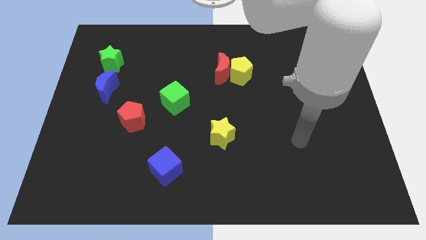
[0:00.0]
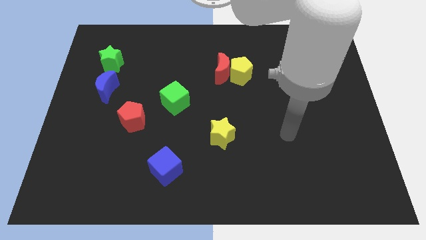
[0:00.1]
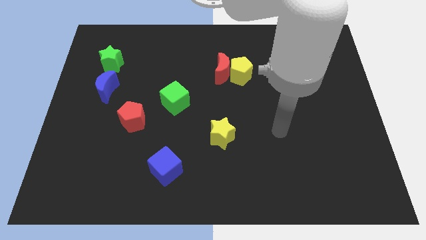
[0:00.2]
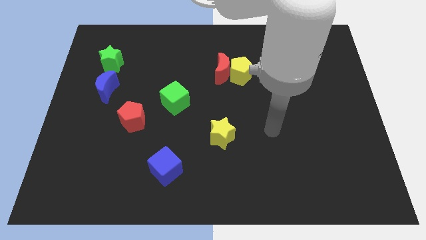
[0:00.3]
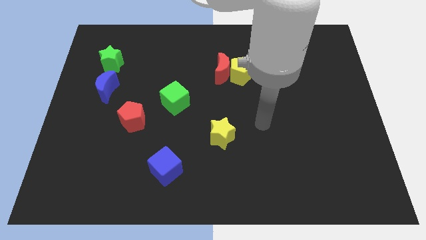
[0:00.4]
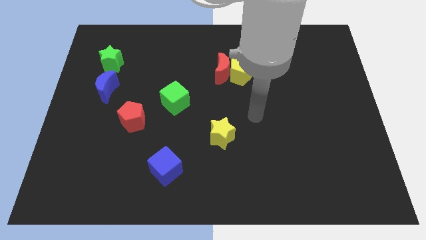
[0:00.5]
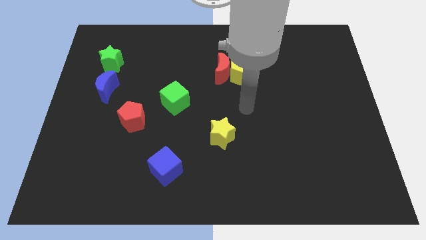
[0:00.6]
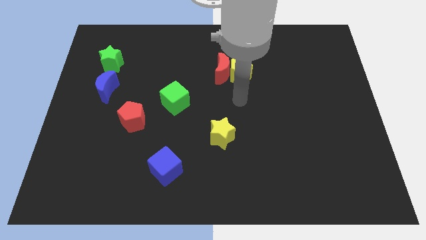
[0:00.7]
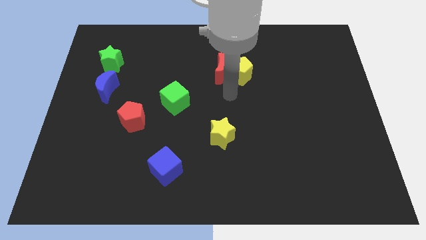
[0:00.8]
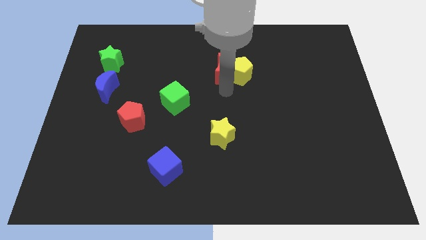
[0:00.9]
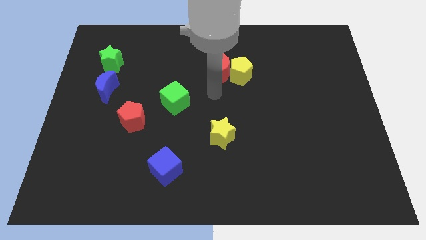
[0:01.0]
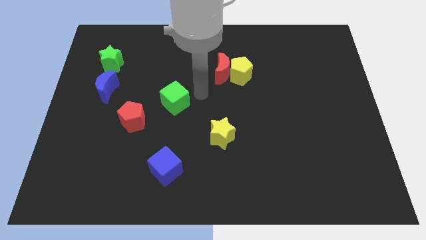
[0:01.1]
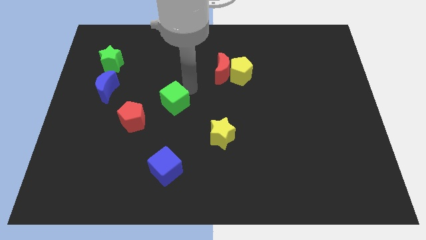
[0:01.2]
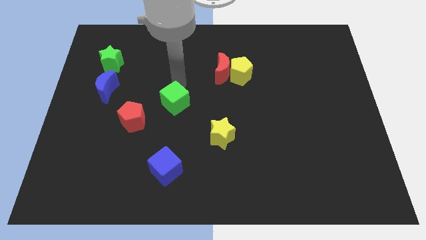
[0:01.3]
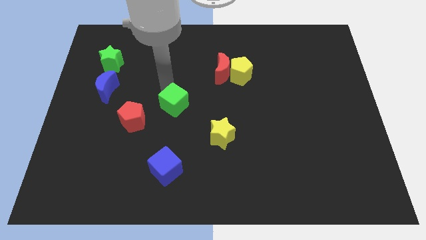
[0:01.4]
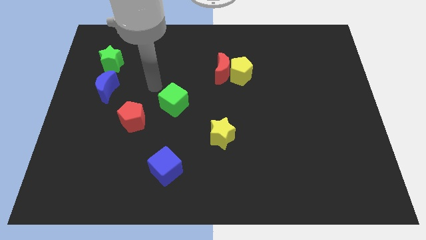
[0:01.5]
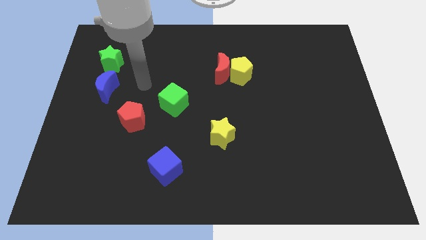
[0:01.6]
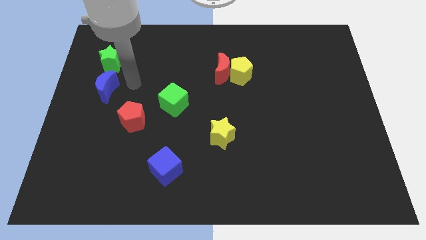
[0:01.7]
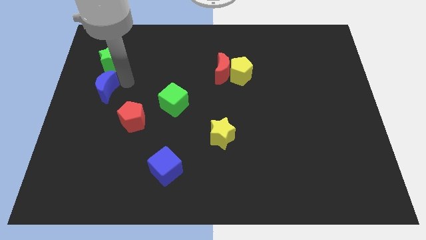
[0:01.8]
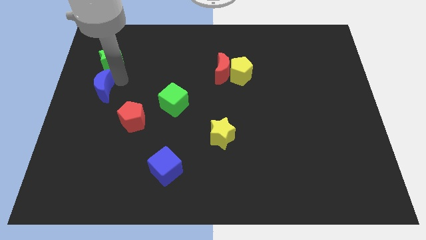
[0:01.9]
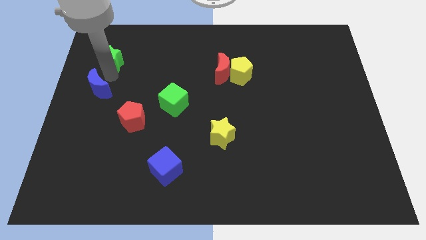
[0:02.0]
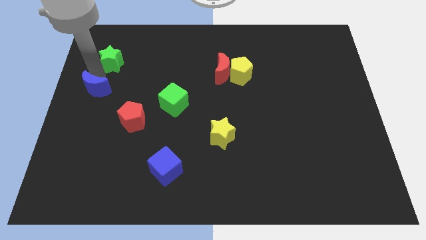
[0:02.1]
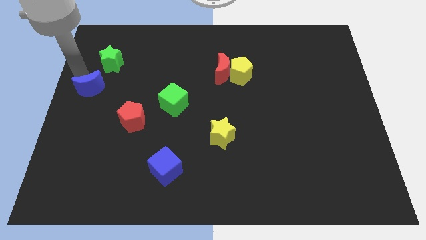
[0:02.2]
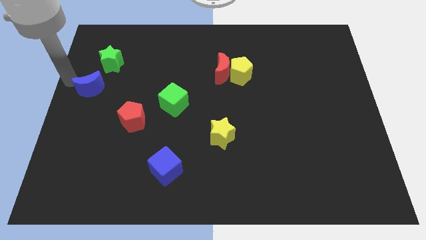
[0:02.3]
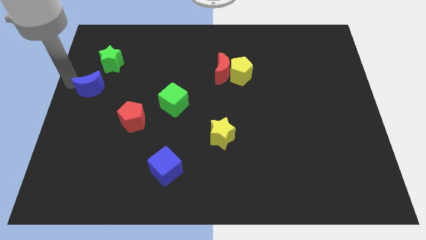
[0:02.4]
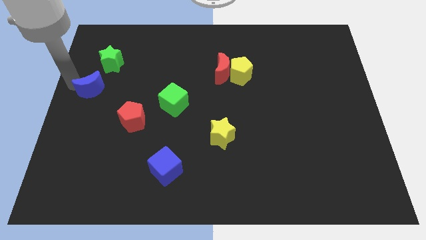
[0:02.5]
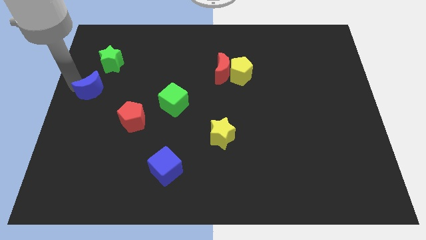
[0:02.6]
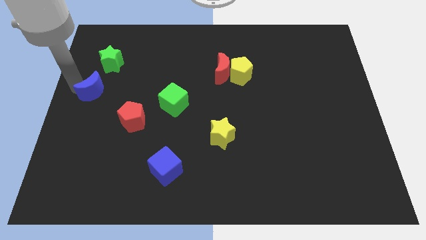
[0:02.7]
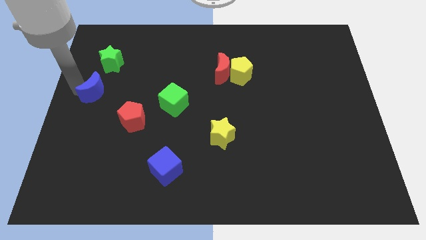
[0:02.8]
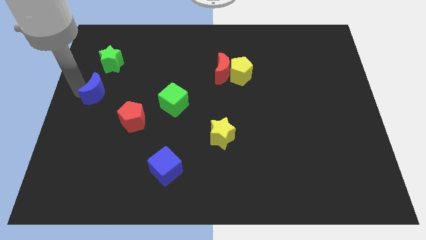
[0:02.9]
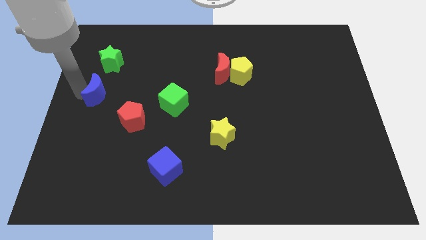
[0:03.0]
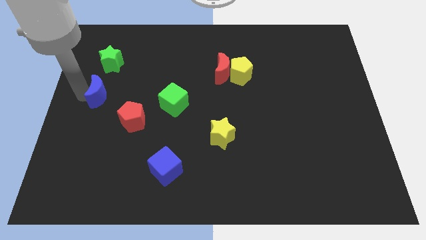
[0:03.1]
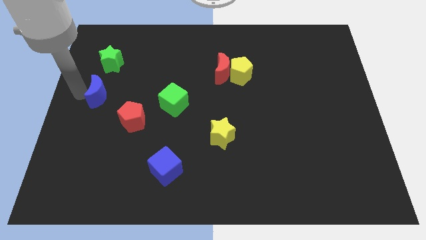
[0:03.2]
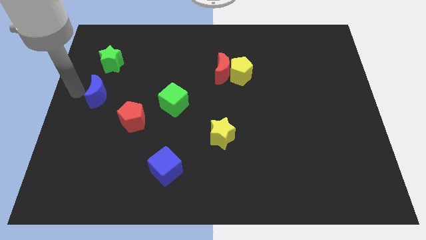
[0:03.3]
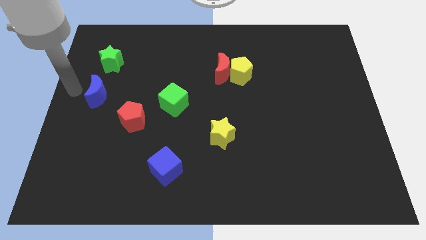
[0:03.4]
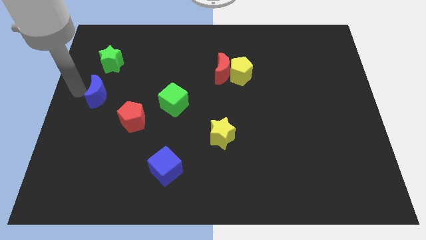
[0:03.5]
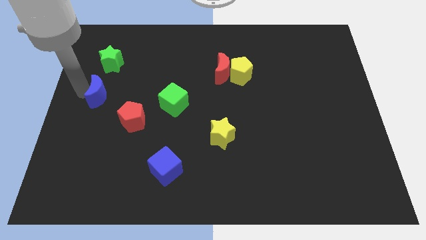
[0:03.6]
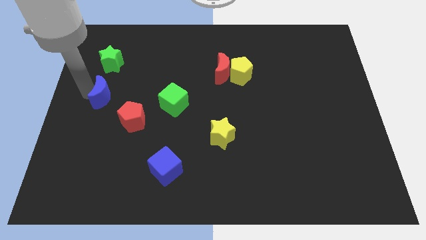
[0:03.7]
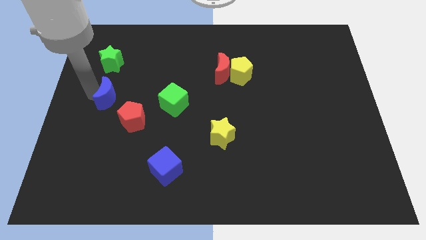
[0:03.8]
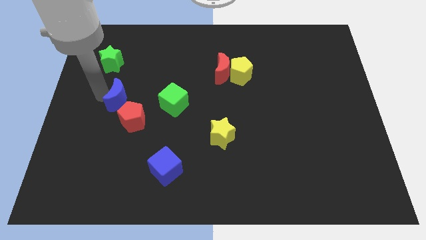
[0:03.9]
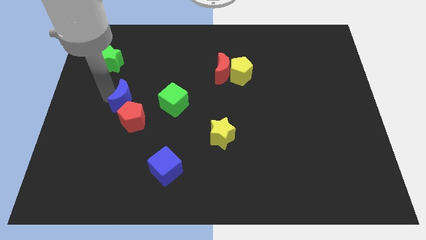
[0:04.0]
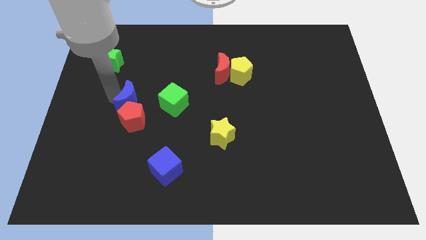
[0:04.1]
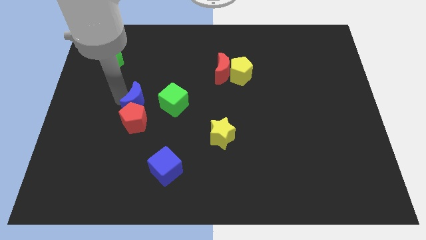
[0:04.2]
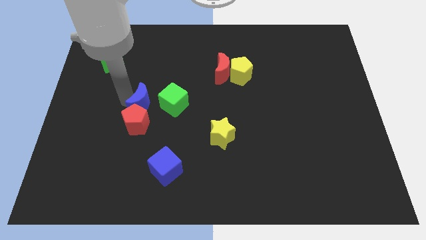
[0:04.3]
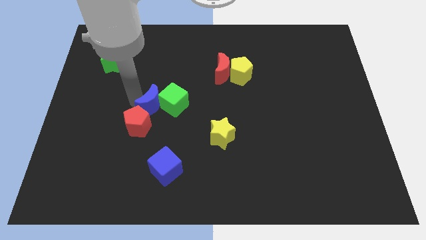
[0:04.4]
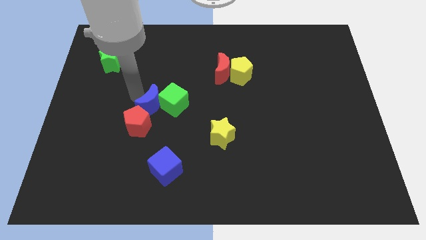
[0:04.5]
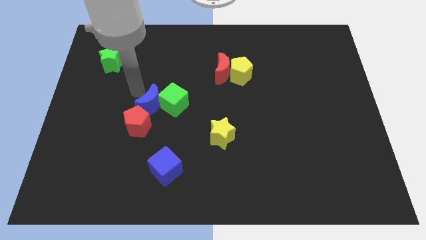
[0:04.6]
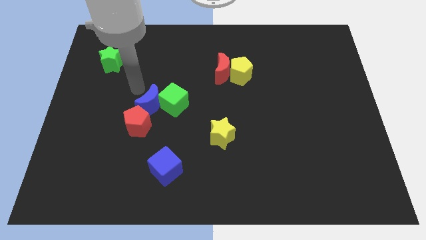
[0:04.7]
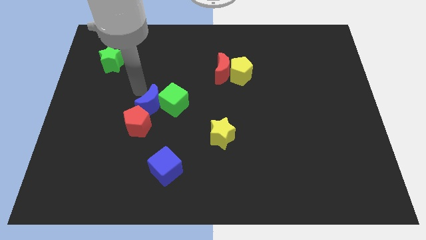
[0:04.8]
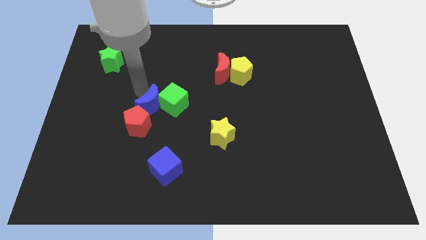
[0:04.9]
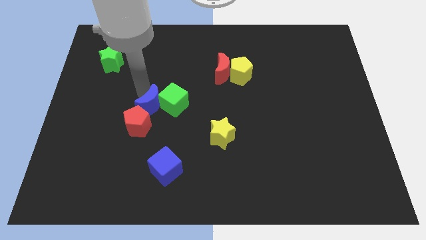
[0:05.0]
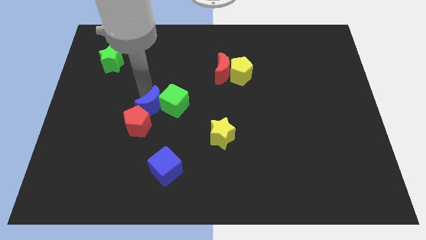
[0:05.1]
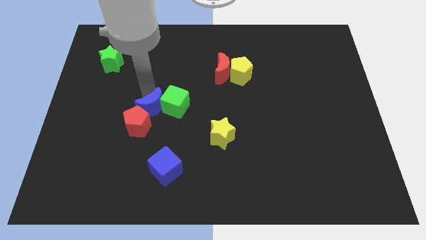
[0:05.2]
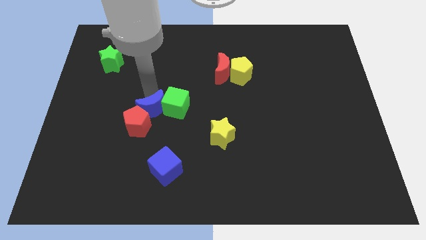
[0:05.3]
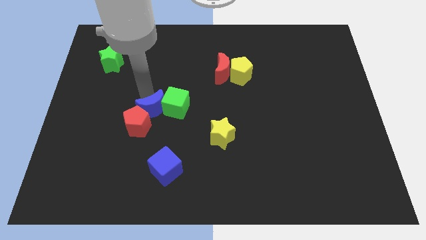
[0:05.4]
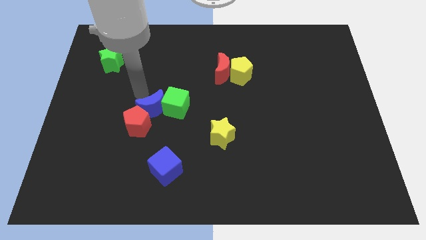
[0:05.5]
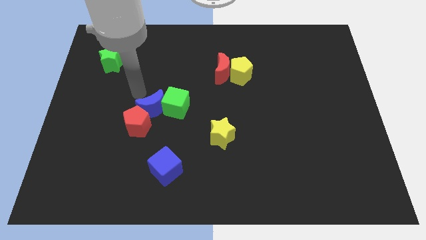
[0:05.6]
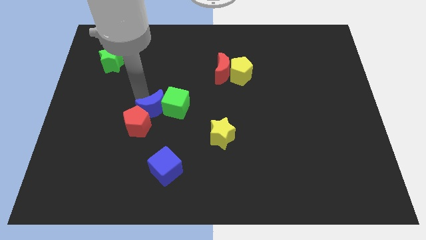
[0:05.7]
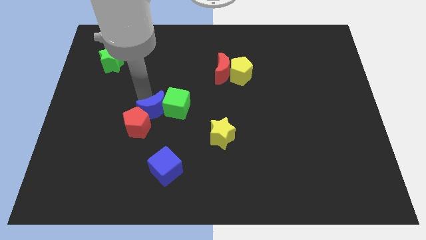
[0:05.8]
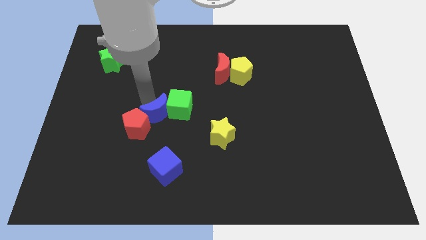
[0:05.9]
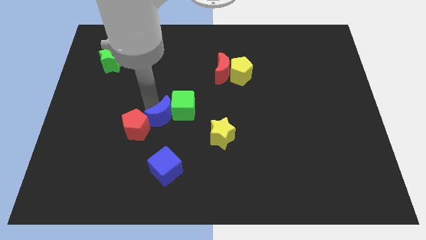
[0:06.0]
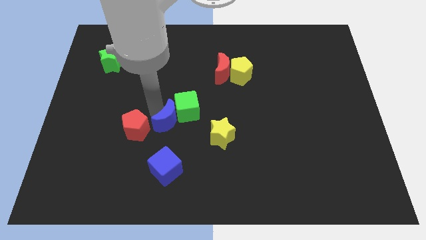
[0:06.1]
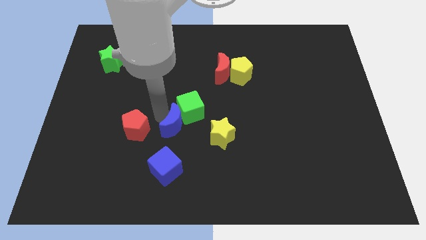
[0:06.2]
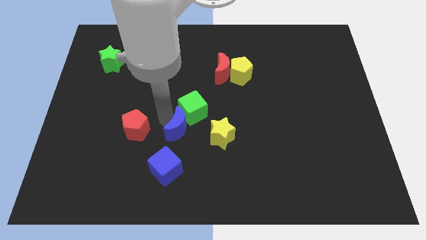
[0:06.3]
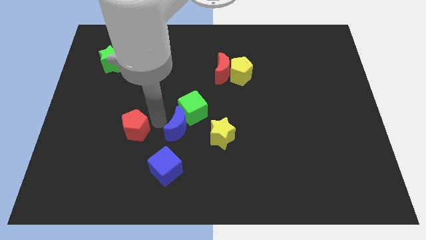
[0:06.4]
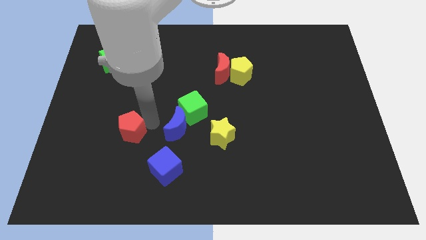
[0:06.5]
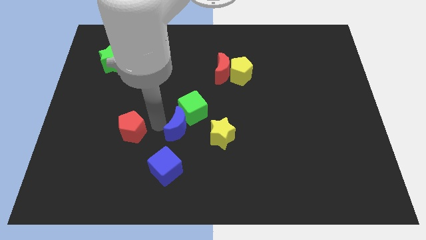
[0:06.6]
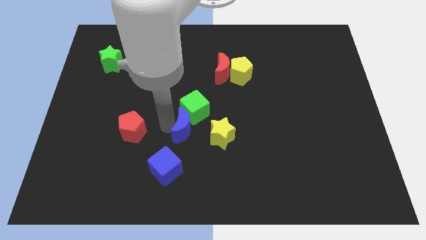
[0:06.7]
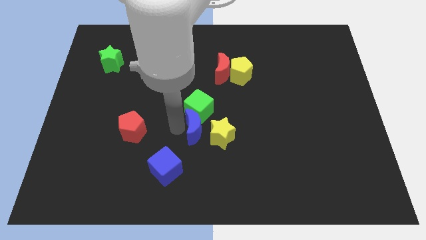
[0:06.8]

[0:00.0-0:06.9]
push the blue moon to the yellow star
